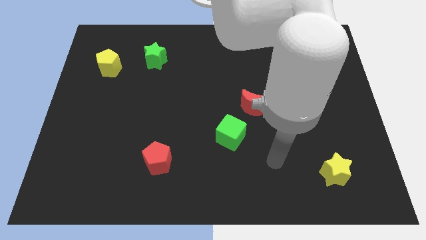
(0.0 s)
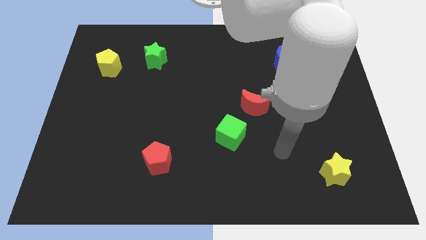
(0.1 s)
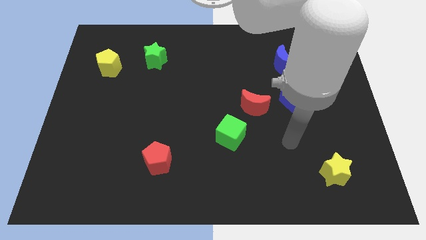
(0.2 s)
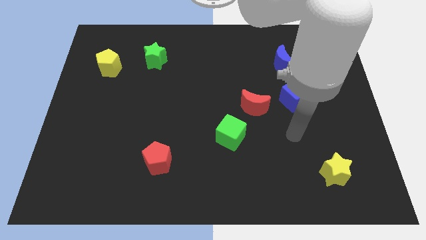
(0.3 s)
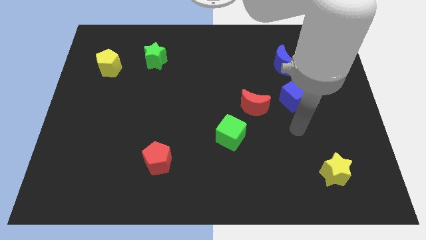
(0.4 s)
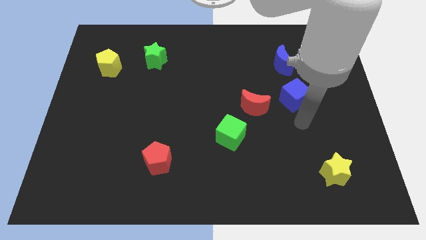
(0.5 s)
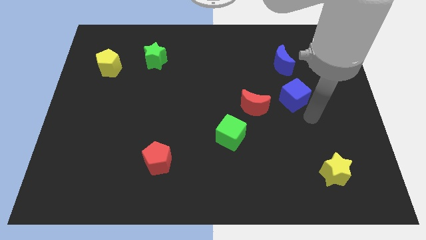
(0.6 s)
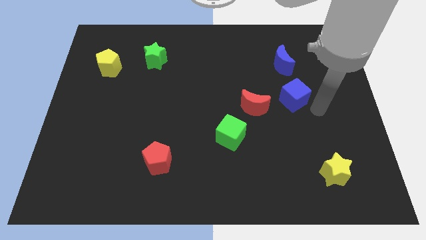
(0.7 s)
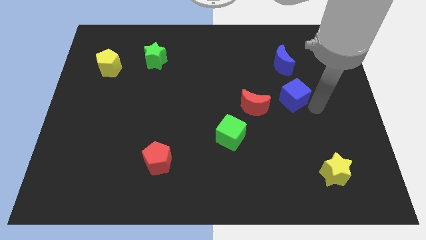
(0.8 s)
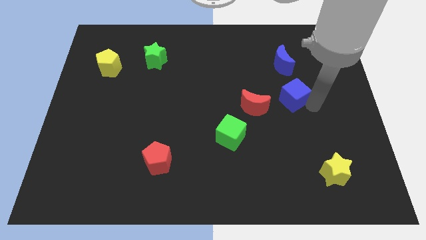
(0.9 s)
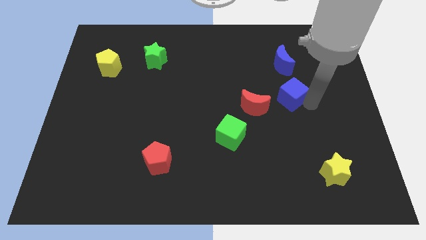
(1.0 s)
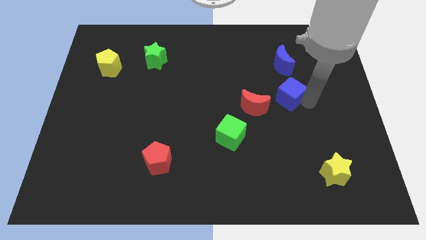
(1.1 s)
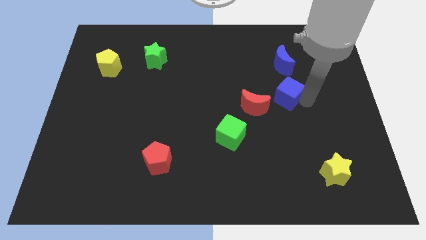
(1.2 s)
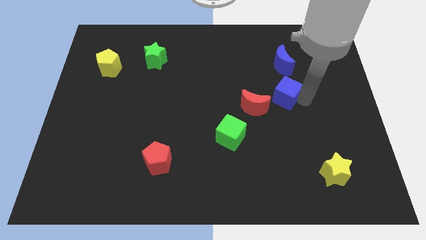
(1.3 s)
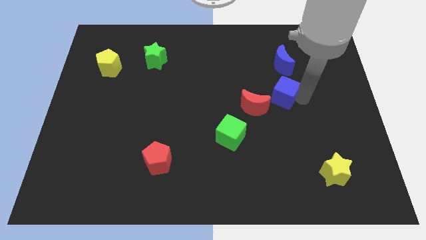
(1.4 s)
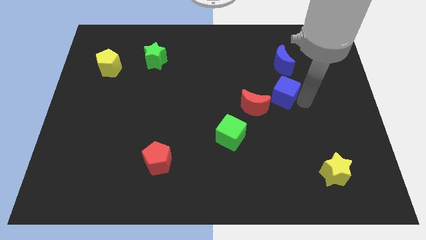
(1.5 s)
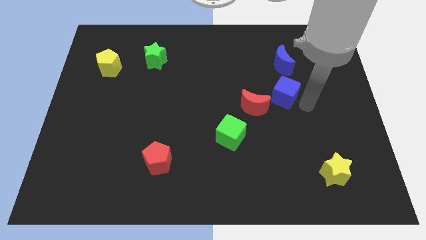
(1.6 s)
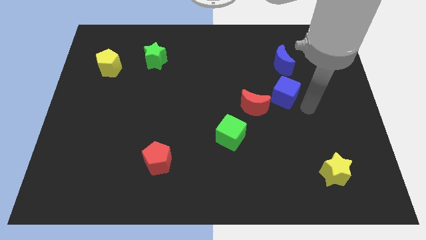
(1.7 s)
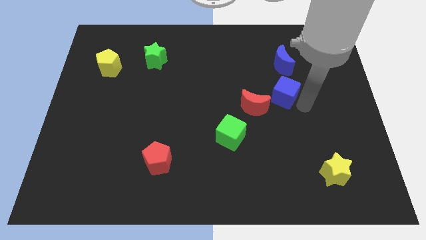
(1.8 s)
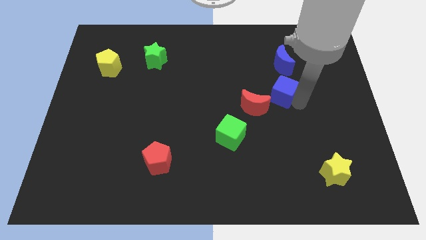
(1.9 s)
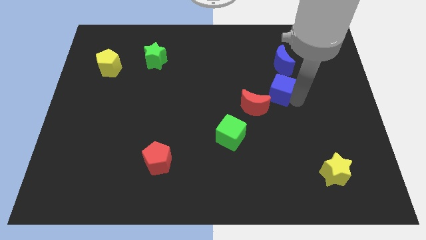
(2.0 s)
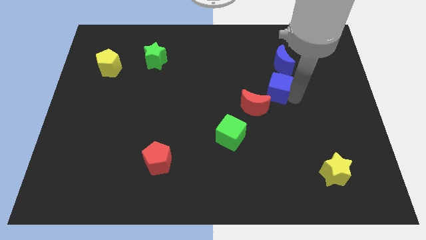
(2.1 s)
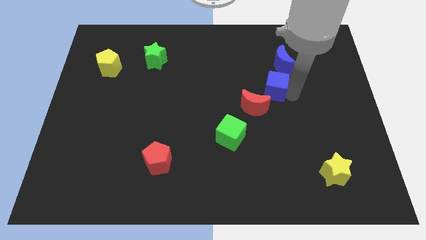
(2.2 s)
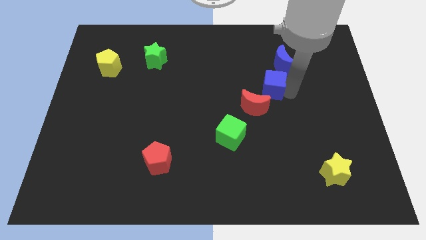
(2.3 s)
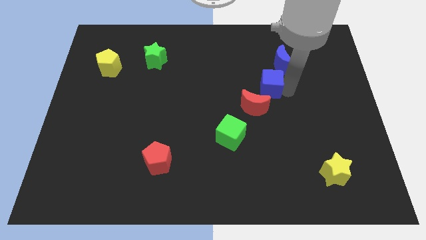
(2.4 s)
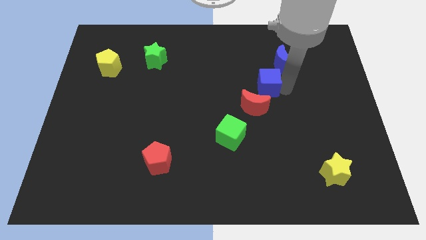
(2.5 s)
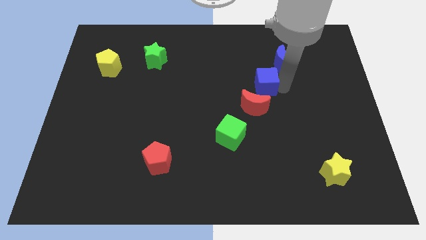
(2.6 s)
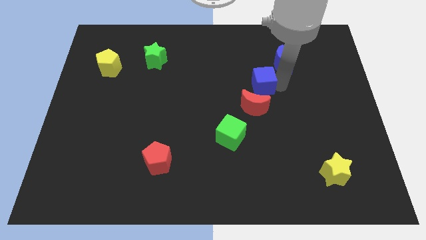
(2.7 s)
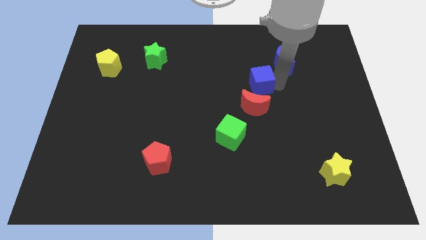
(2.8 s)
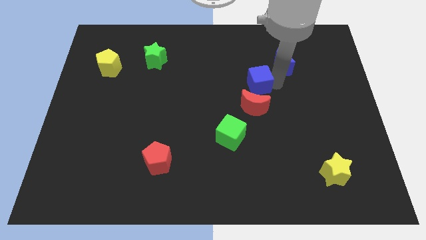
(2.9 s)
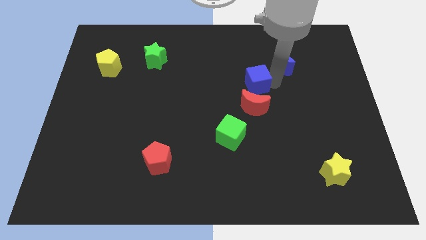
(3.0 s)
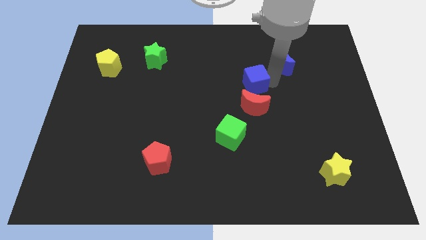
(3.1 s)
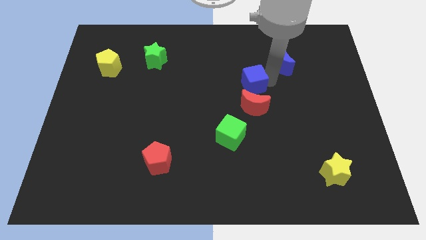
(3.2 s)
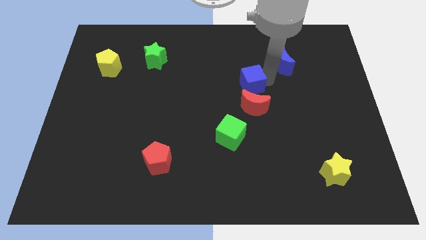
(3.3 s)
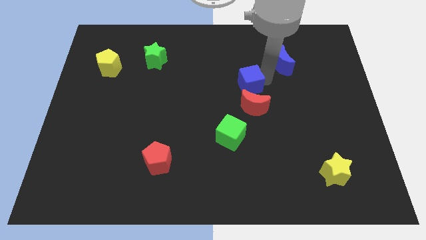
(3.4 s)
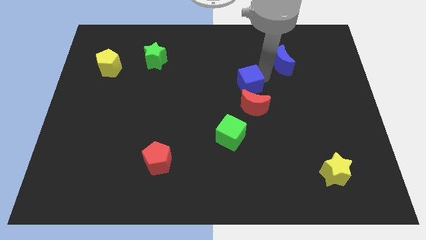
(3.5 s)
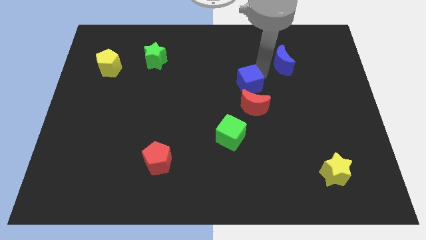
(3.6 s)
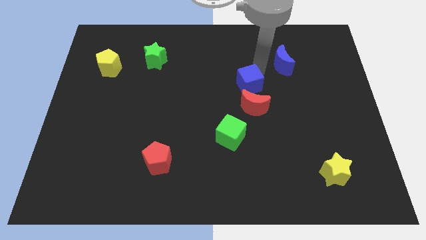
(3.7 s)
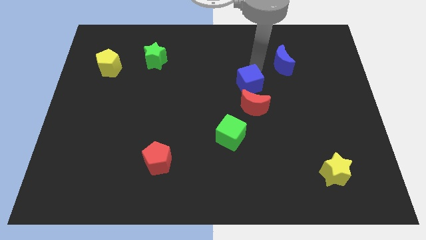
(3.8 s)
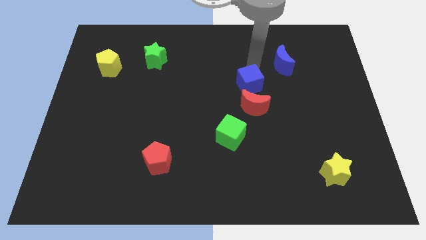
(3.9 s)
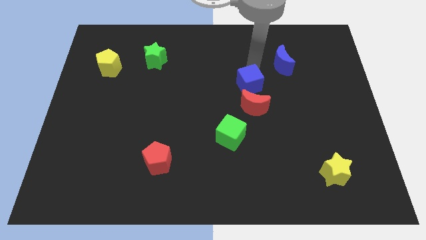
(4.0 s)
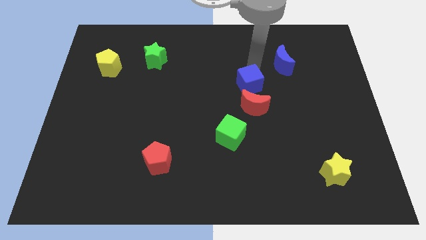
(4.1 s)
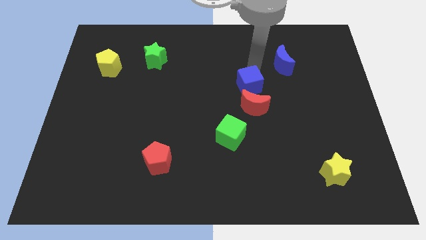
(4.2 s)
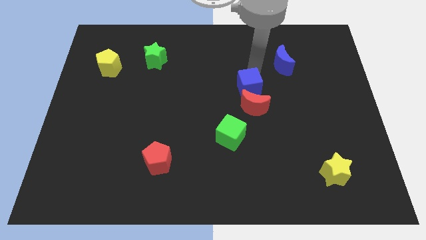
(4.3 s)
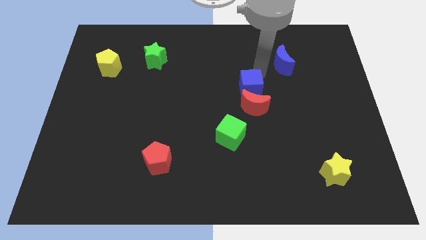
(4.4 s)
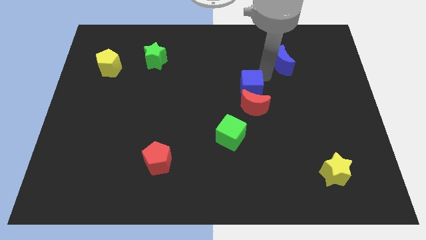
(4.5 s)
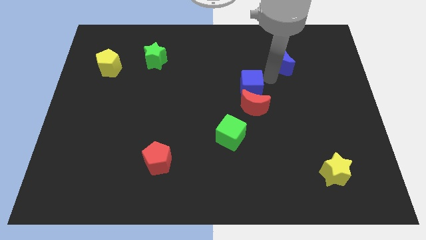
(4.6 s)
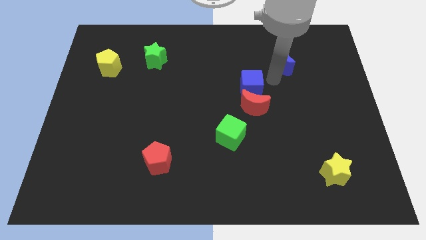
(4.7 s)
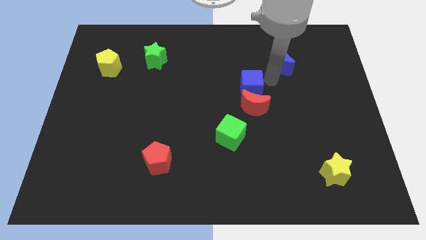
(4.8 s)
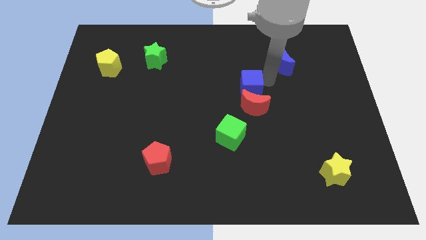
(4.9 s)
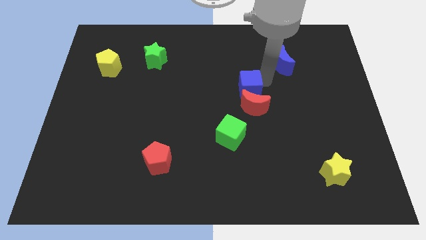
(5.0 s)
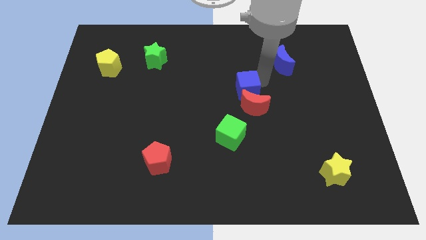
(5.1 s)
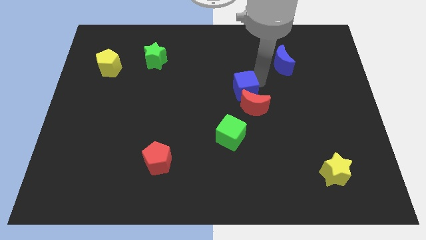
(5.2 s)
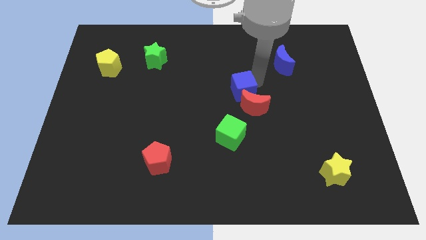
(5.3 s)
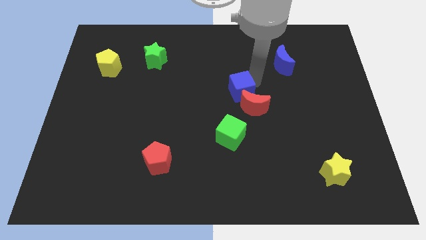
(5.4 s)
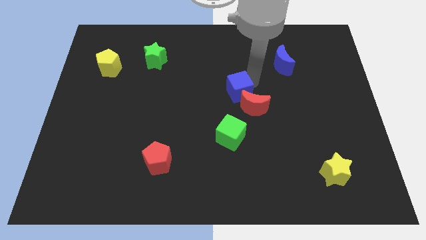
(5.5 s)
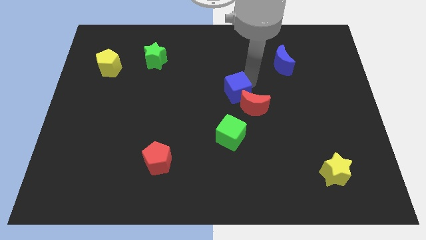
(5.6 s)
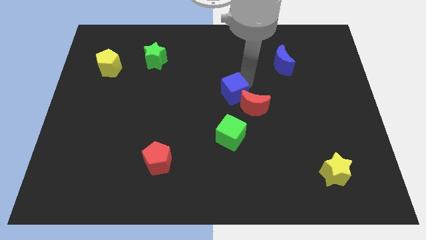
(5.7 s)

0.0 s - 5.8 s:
slide the blue cube to the left of the red moon

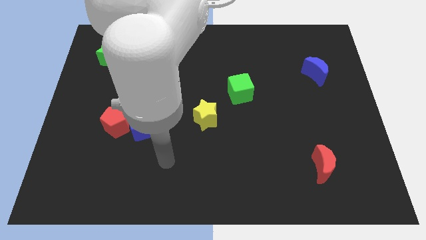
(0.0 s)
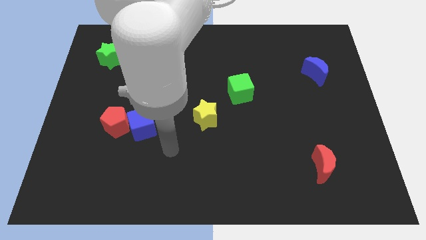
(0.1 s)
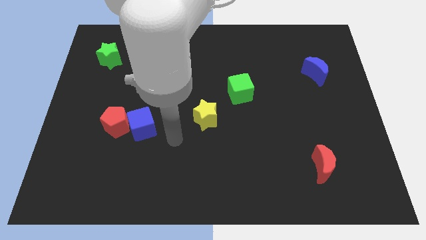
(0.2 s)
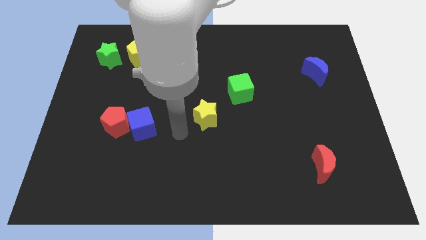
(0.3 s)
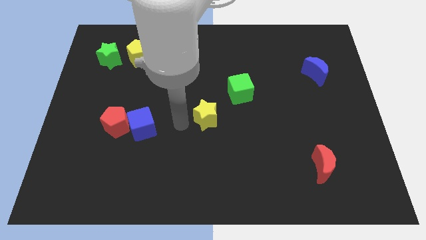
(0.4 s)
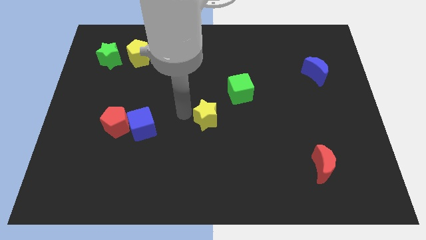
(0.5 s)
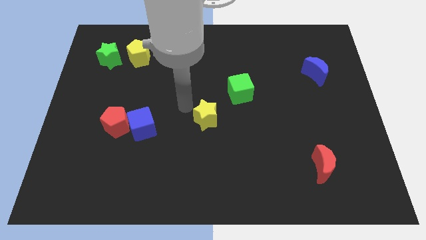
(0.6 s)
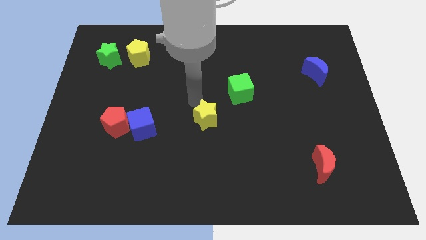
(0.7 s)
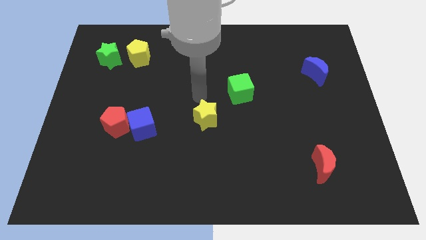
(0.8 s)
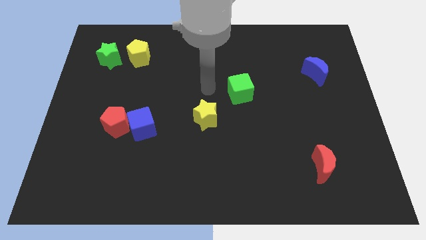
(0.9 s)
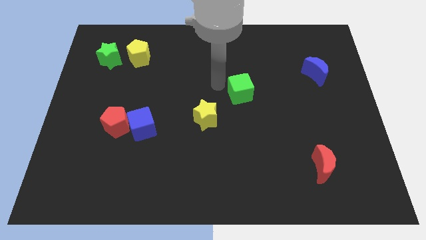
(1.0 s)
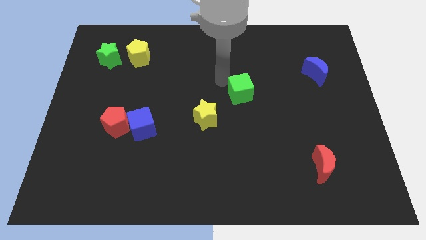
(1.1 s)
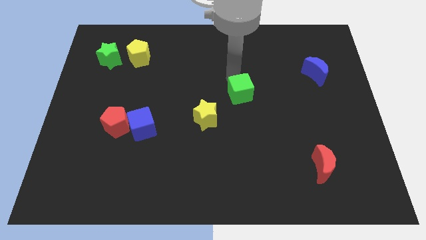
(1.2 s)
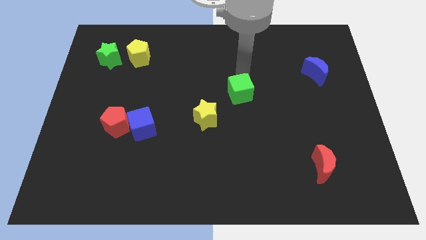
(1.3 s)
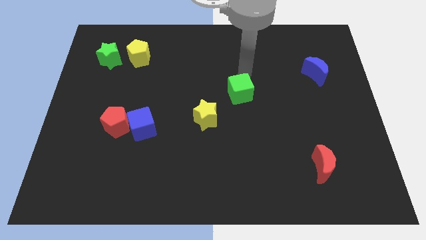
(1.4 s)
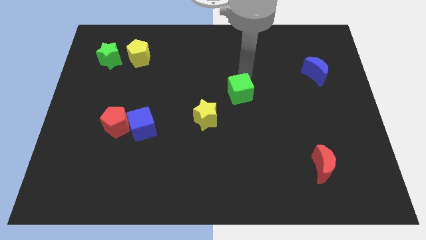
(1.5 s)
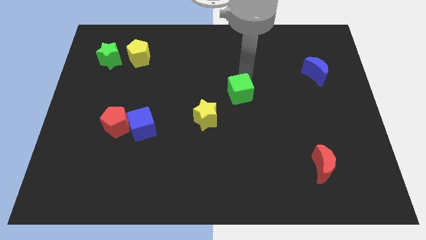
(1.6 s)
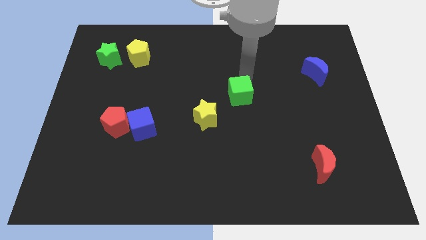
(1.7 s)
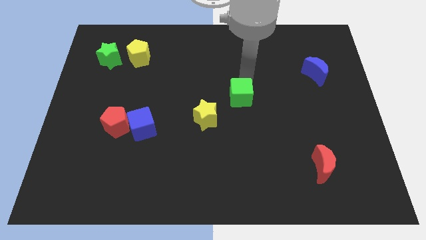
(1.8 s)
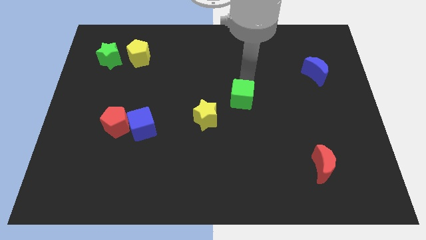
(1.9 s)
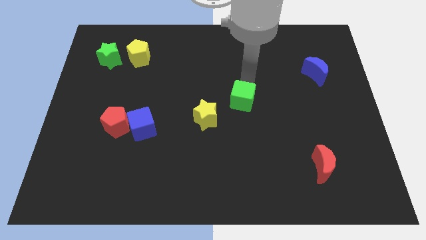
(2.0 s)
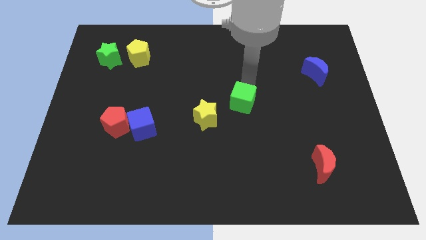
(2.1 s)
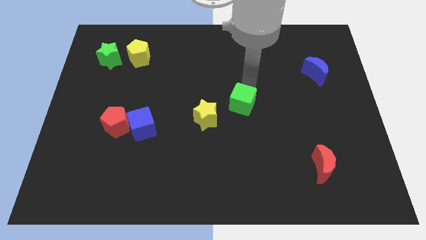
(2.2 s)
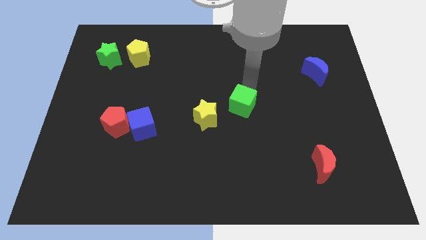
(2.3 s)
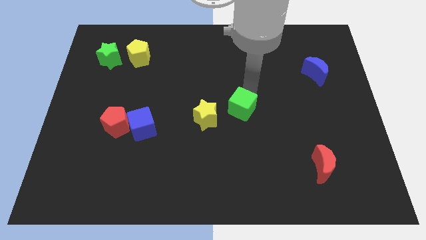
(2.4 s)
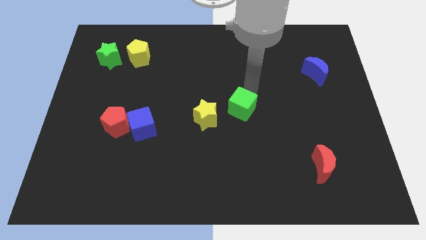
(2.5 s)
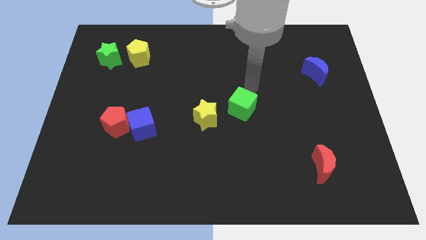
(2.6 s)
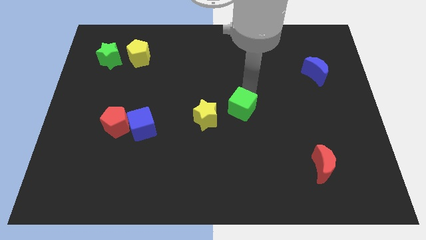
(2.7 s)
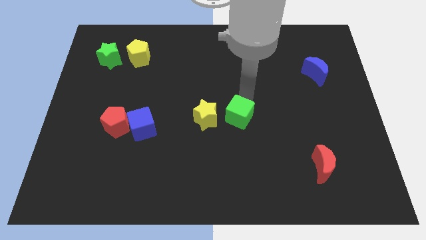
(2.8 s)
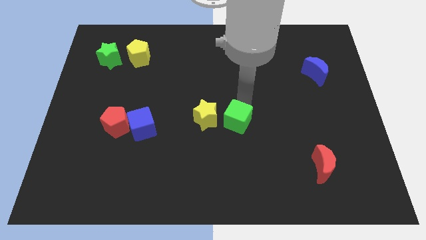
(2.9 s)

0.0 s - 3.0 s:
move the green cube diagonally down and to the right of the yellow star

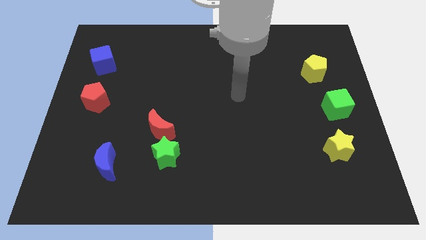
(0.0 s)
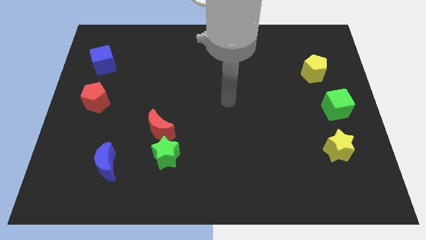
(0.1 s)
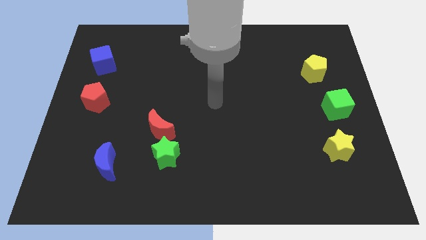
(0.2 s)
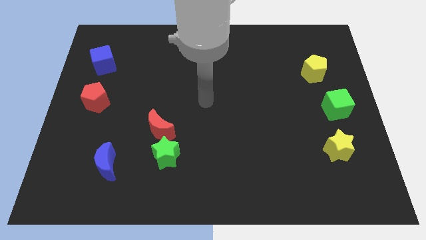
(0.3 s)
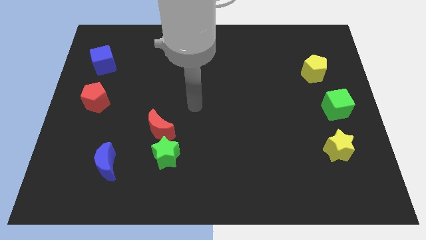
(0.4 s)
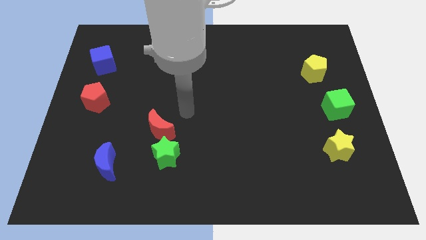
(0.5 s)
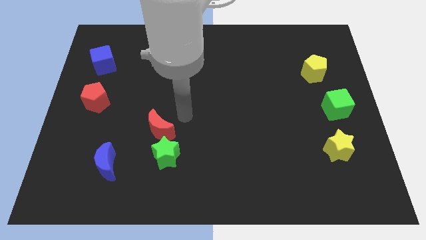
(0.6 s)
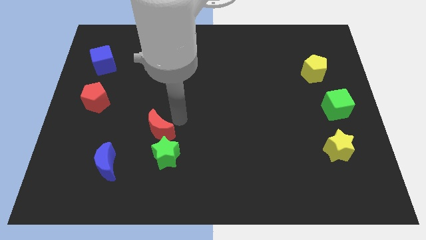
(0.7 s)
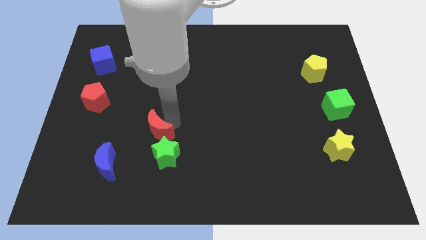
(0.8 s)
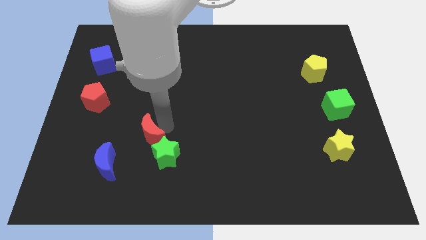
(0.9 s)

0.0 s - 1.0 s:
slide the red moon diagonally up and to the right of the blue moon
